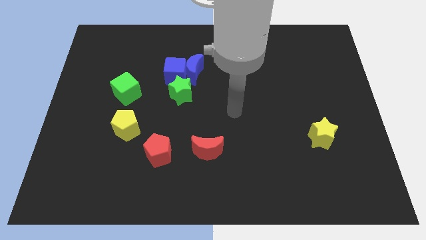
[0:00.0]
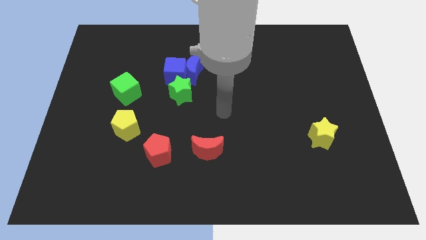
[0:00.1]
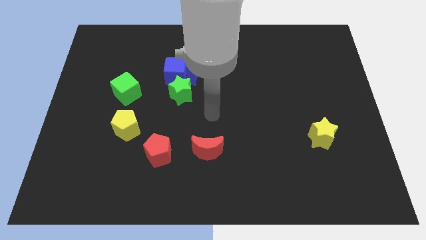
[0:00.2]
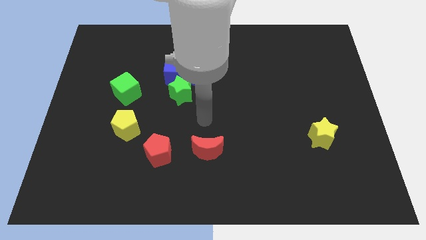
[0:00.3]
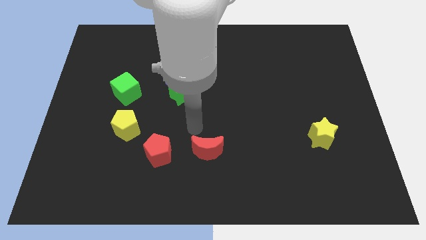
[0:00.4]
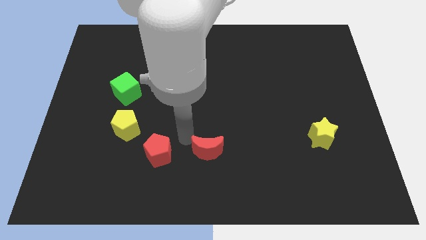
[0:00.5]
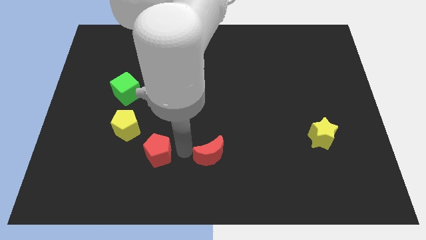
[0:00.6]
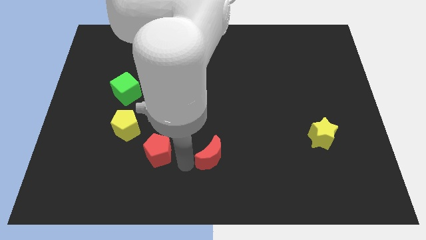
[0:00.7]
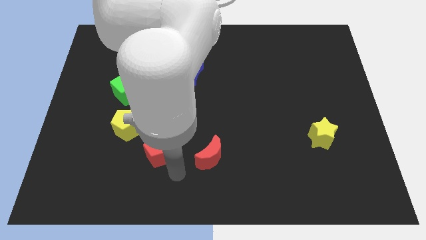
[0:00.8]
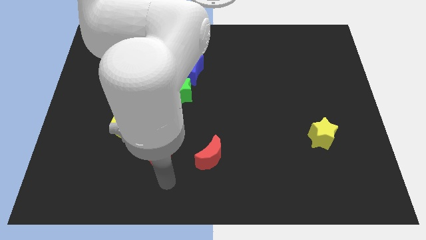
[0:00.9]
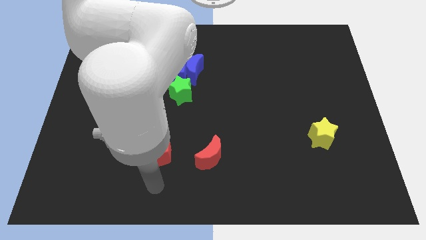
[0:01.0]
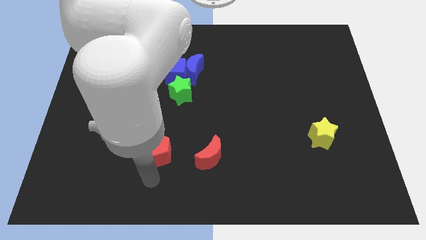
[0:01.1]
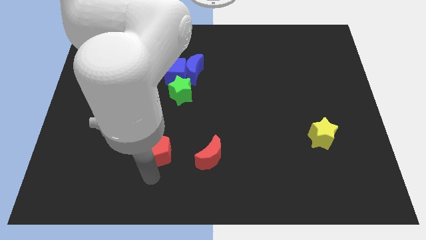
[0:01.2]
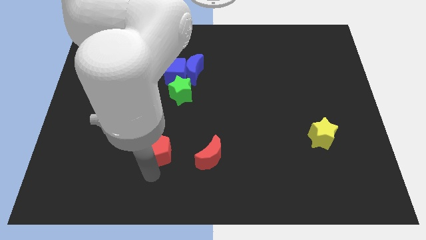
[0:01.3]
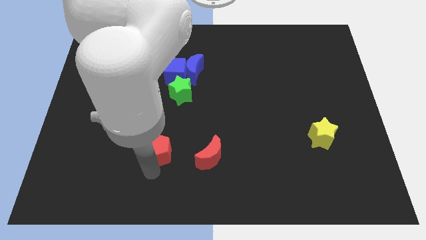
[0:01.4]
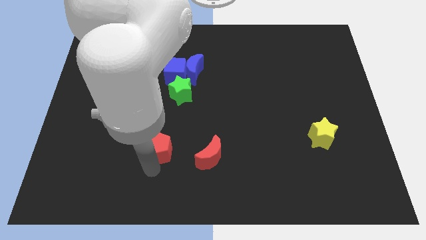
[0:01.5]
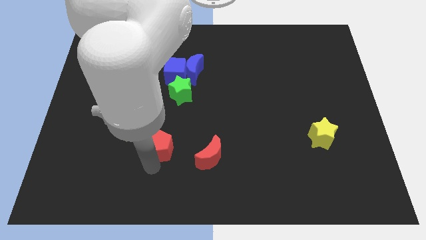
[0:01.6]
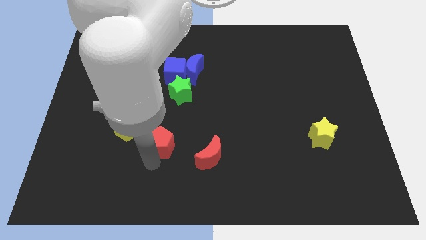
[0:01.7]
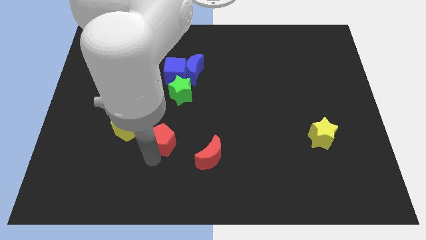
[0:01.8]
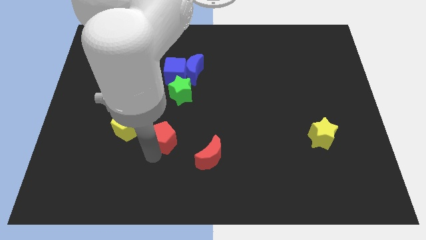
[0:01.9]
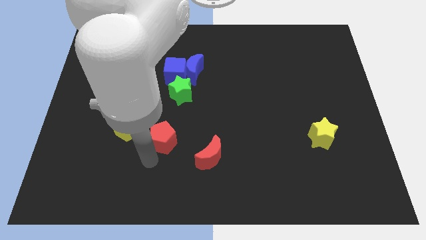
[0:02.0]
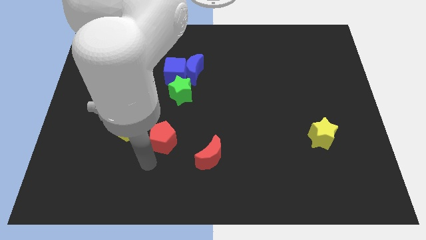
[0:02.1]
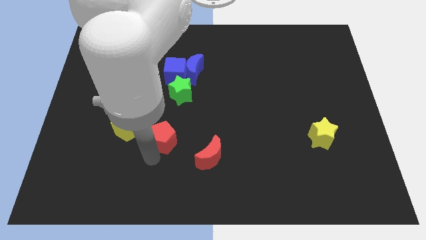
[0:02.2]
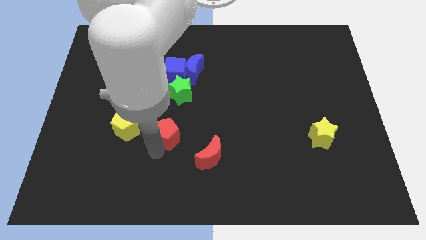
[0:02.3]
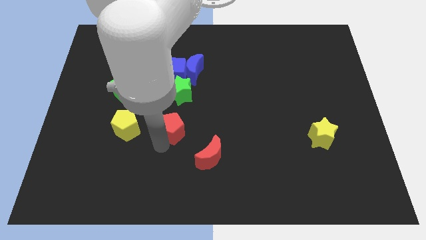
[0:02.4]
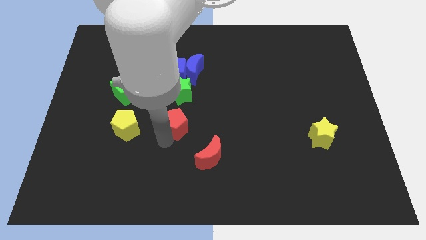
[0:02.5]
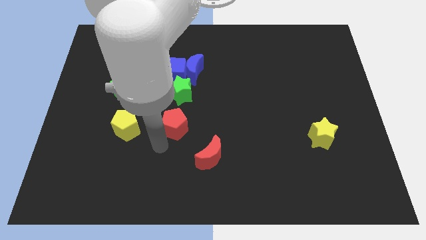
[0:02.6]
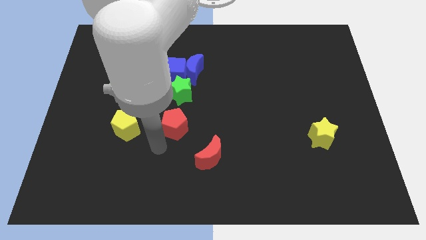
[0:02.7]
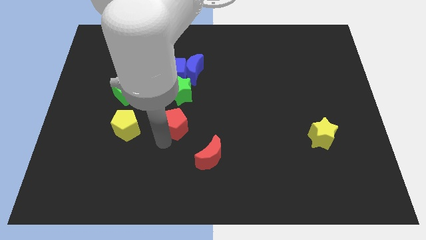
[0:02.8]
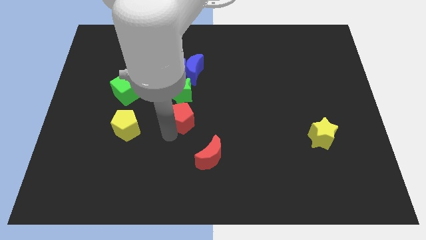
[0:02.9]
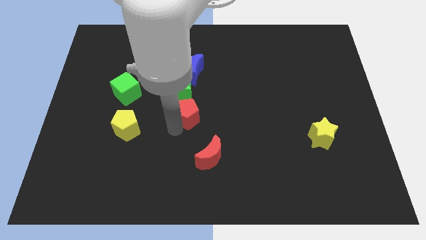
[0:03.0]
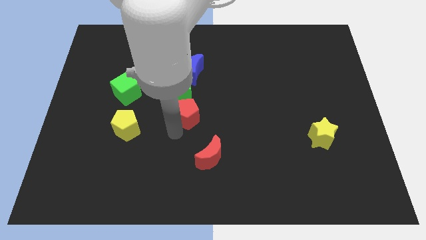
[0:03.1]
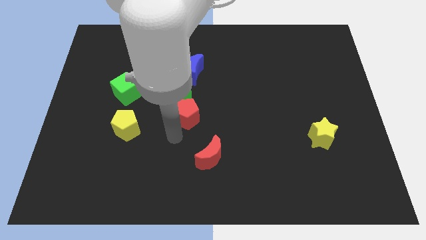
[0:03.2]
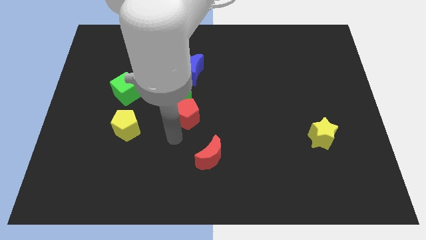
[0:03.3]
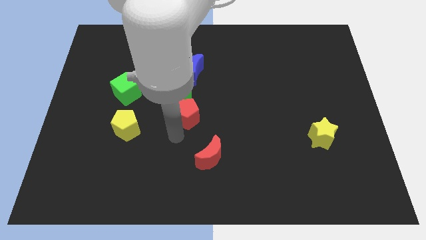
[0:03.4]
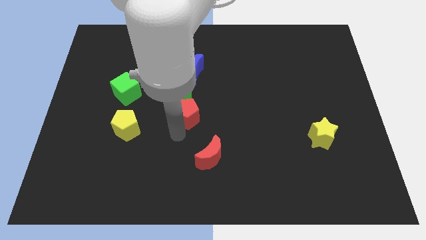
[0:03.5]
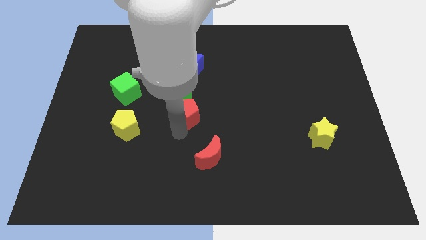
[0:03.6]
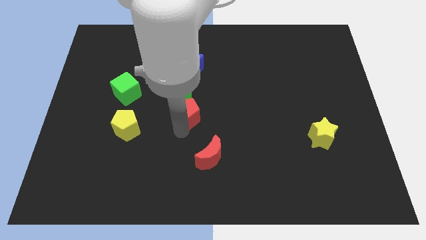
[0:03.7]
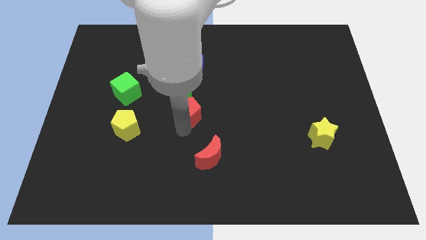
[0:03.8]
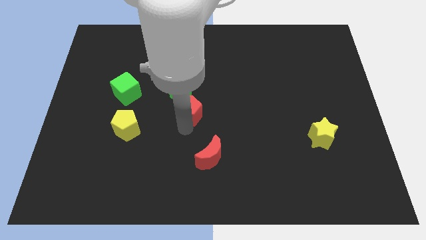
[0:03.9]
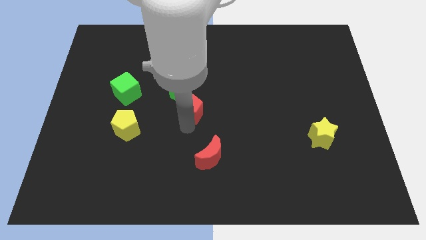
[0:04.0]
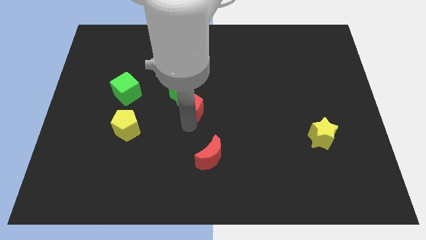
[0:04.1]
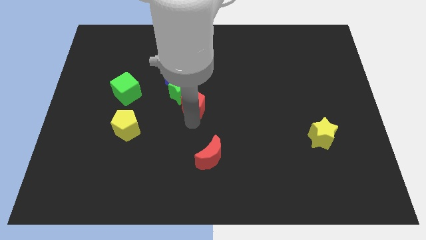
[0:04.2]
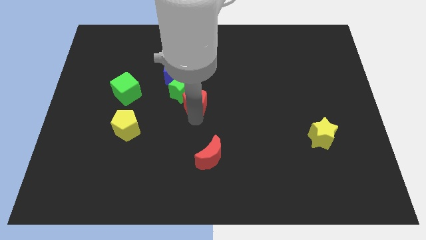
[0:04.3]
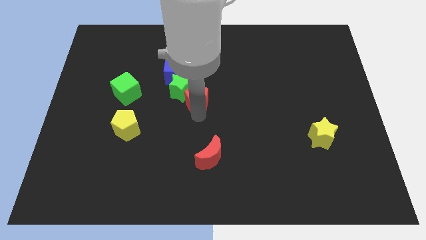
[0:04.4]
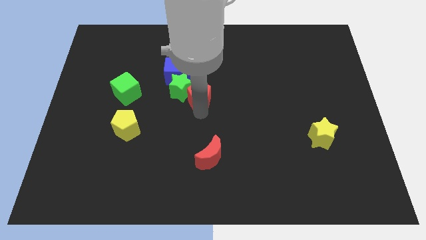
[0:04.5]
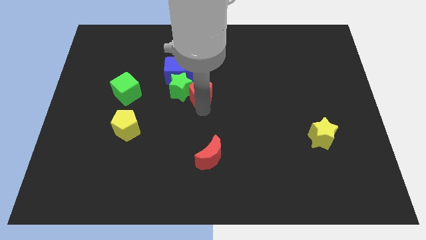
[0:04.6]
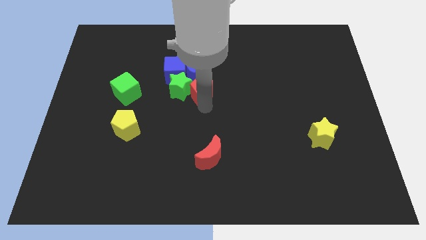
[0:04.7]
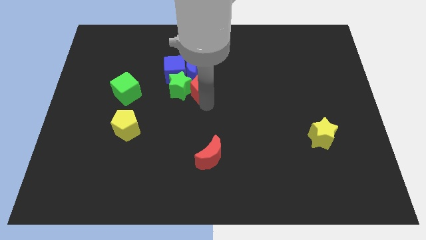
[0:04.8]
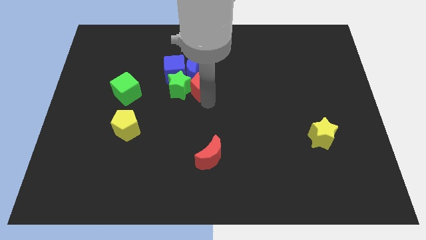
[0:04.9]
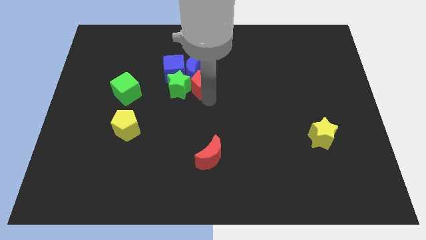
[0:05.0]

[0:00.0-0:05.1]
put the red pentagon towards the blue moon

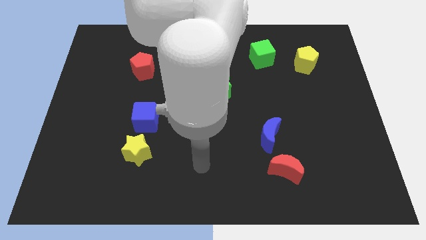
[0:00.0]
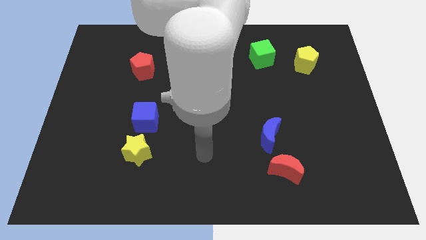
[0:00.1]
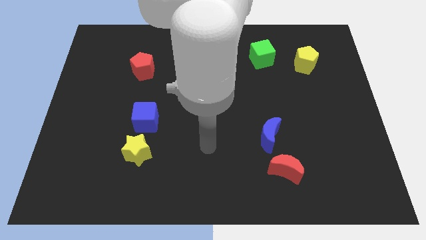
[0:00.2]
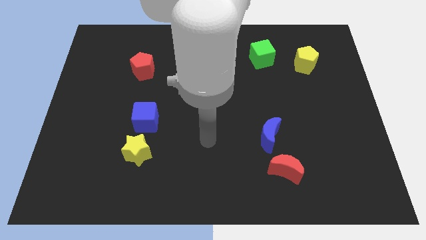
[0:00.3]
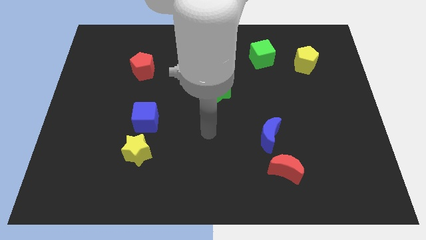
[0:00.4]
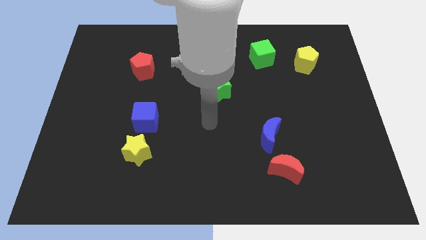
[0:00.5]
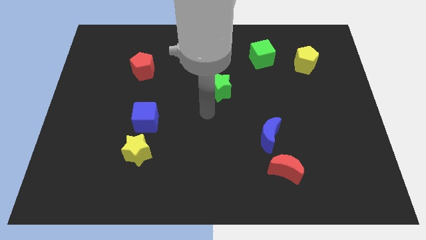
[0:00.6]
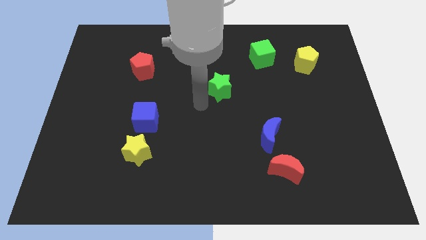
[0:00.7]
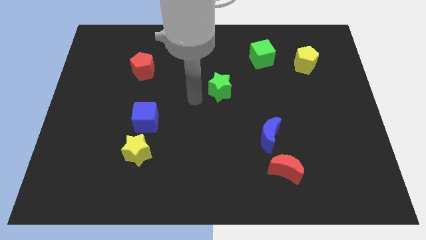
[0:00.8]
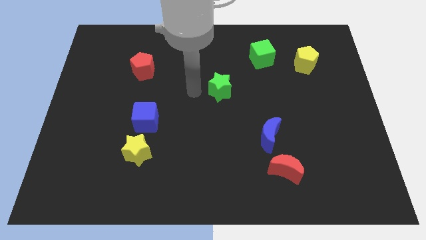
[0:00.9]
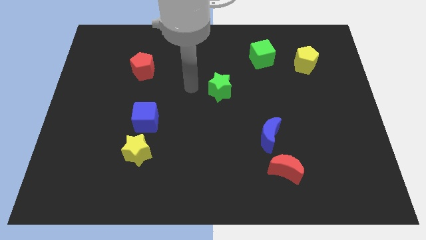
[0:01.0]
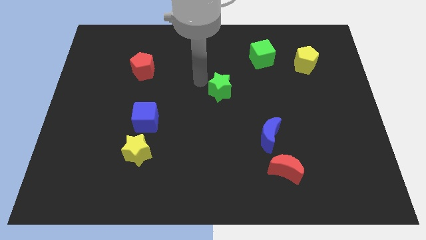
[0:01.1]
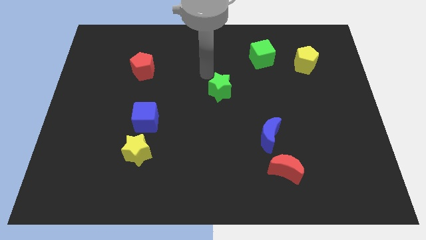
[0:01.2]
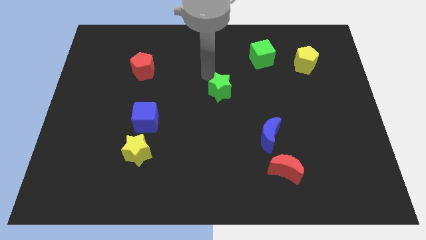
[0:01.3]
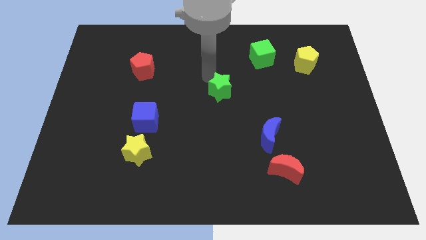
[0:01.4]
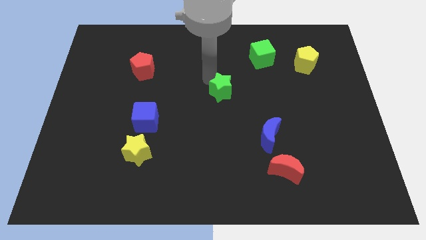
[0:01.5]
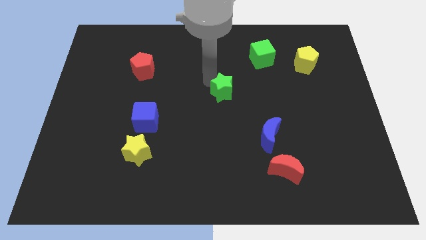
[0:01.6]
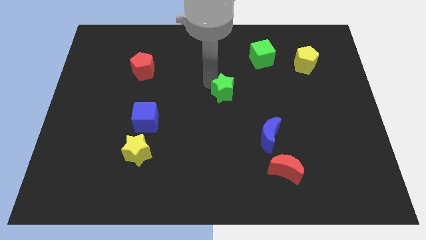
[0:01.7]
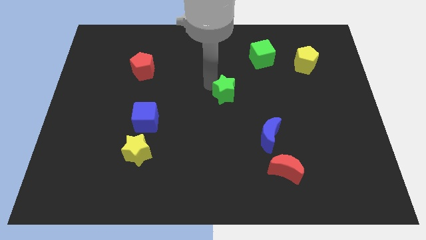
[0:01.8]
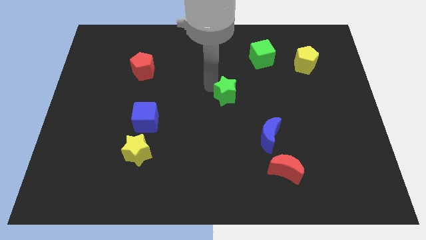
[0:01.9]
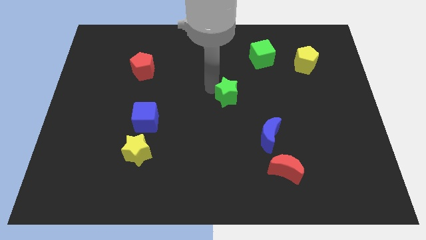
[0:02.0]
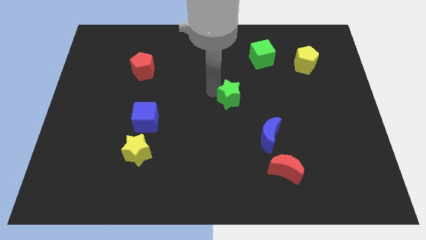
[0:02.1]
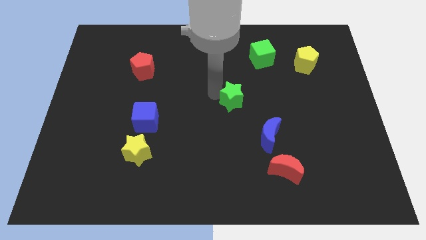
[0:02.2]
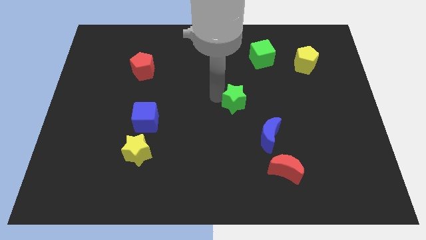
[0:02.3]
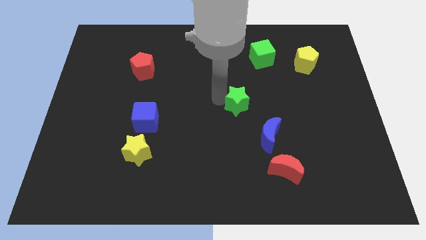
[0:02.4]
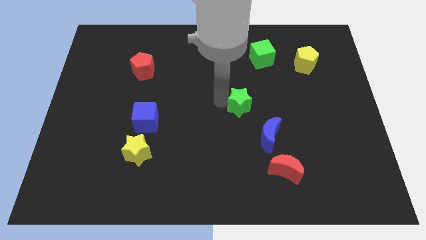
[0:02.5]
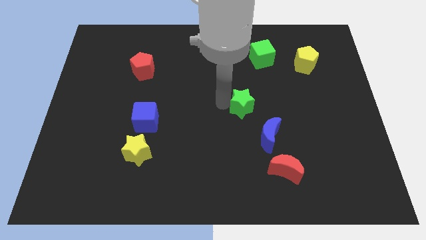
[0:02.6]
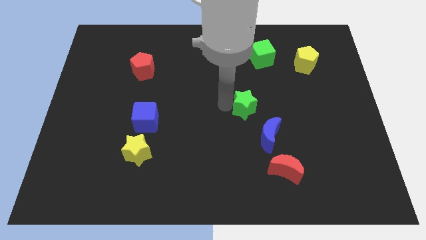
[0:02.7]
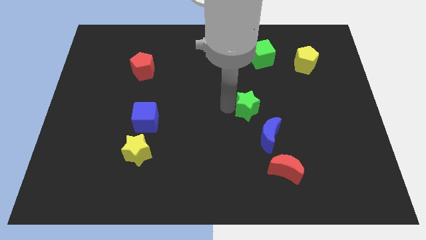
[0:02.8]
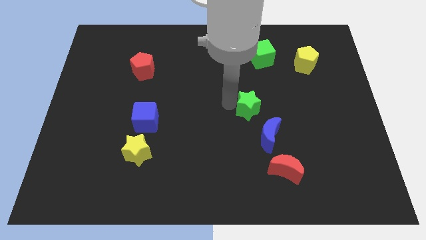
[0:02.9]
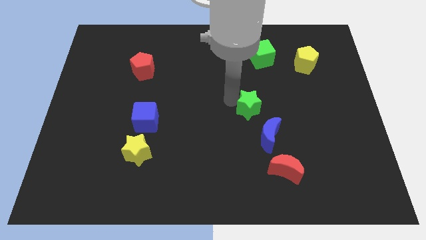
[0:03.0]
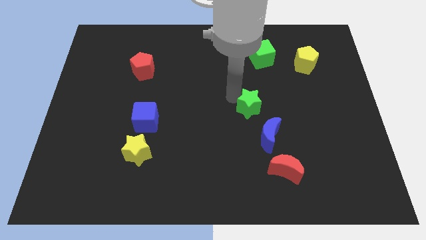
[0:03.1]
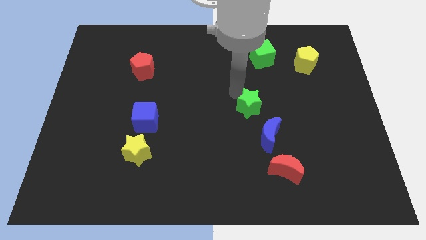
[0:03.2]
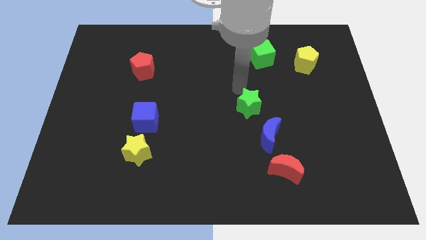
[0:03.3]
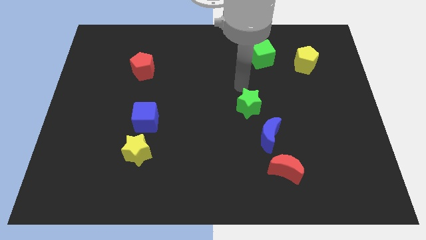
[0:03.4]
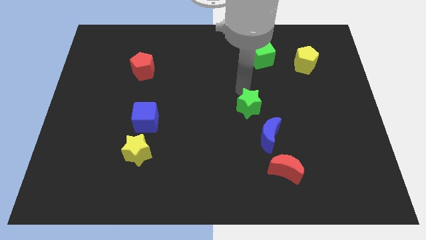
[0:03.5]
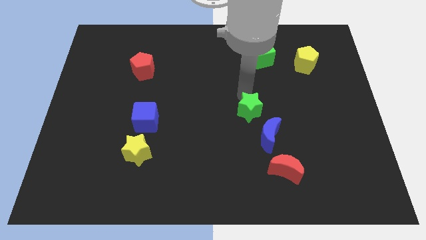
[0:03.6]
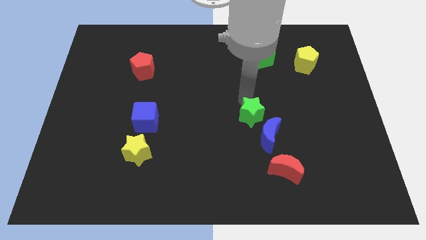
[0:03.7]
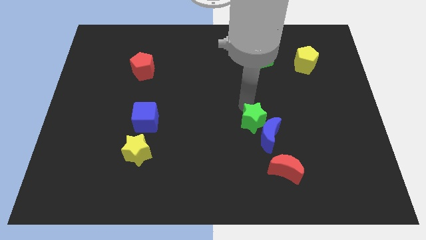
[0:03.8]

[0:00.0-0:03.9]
move the green star towards the blue moon
